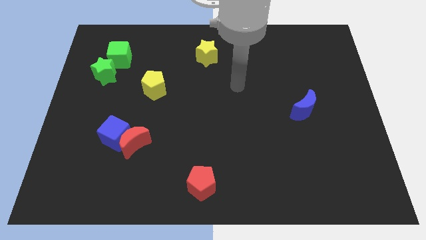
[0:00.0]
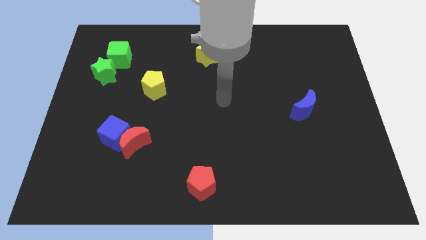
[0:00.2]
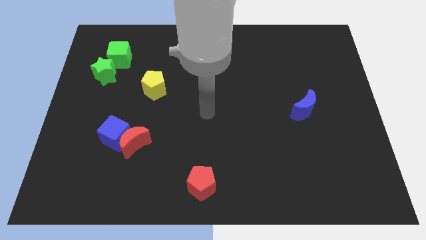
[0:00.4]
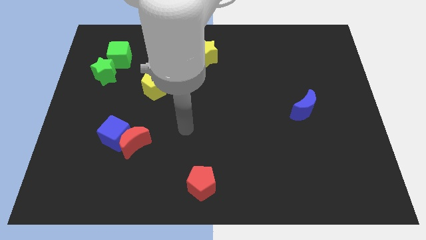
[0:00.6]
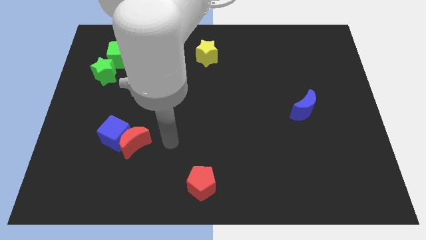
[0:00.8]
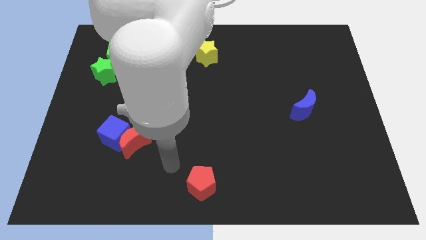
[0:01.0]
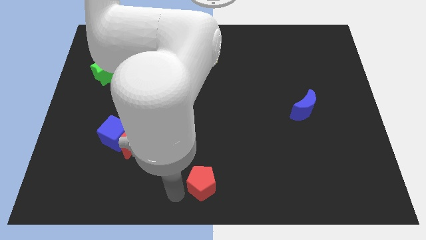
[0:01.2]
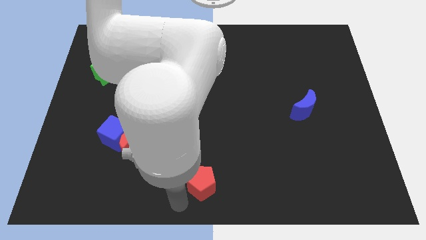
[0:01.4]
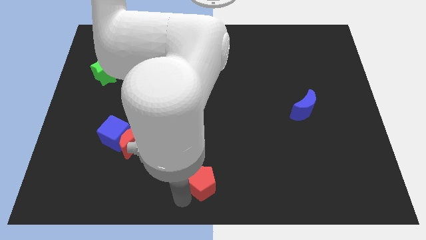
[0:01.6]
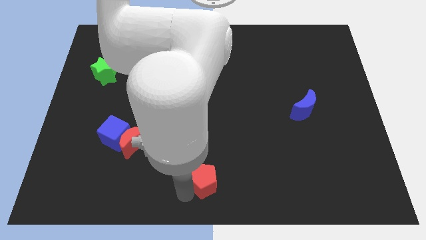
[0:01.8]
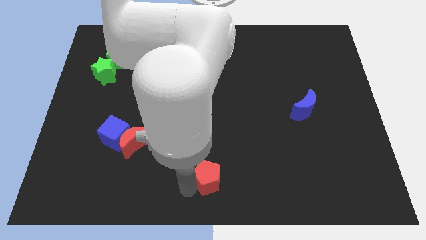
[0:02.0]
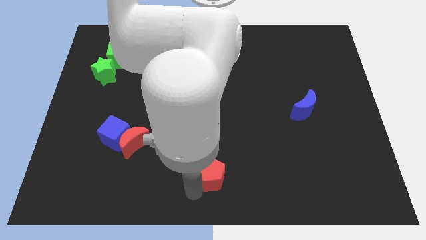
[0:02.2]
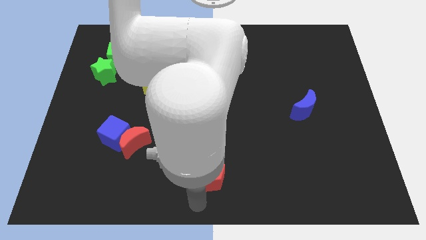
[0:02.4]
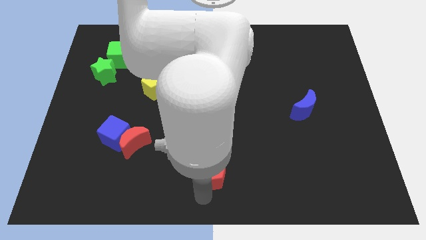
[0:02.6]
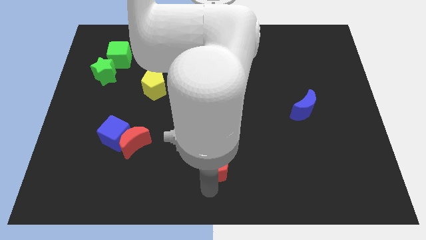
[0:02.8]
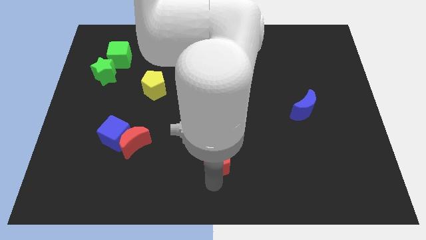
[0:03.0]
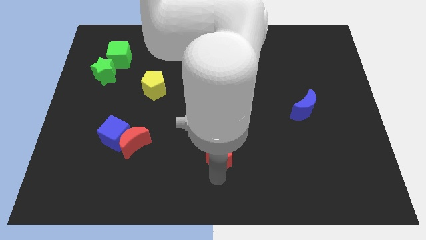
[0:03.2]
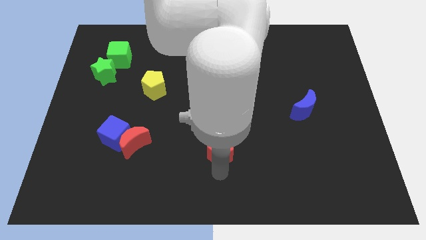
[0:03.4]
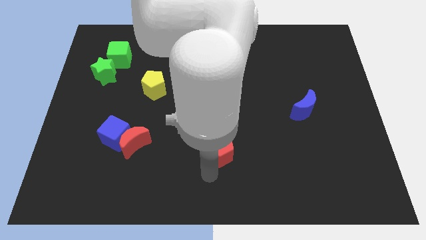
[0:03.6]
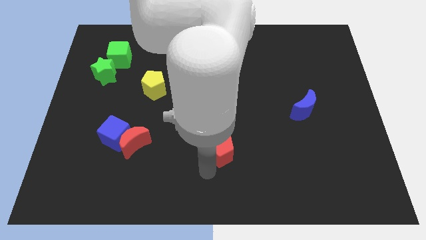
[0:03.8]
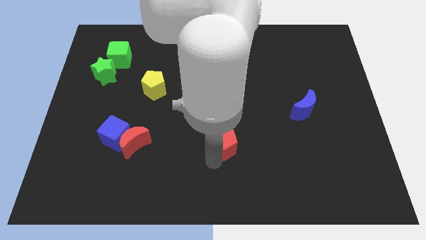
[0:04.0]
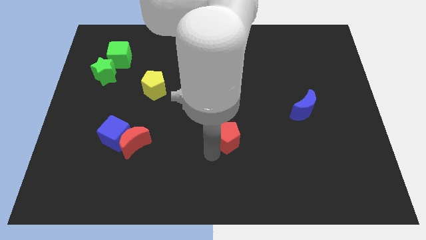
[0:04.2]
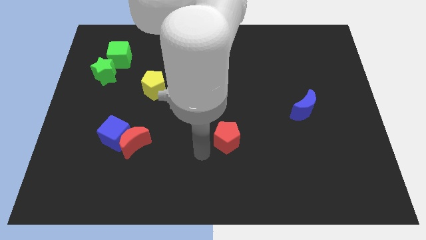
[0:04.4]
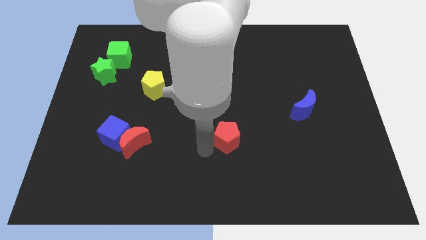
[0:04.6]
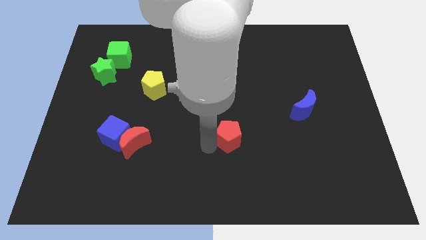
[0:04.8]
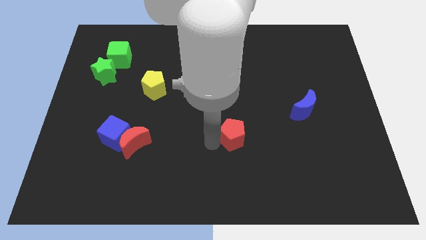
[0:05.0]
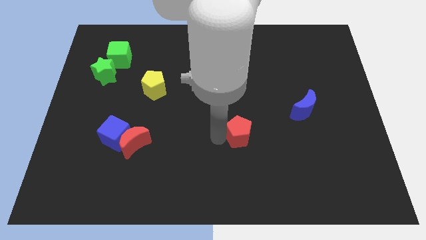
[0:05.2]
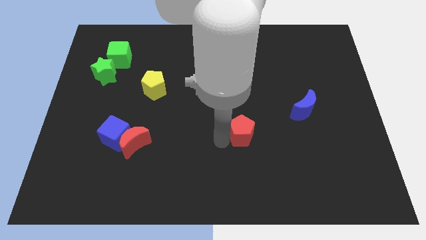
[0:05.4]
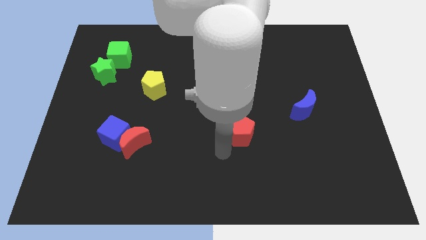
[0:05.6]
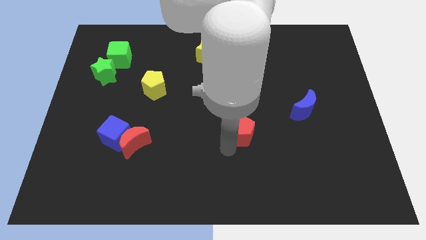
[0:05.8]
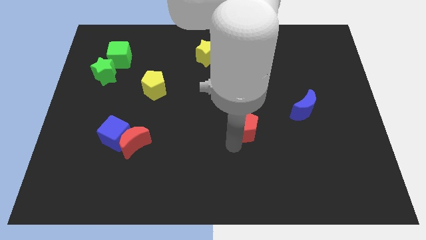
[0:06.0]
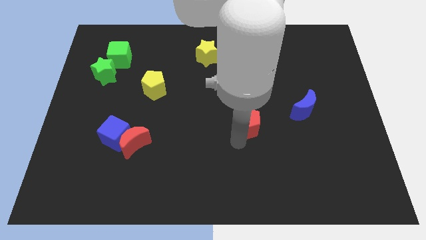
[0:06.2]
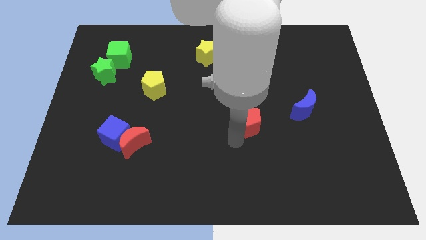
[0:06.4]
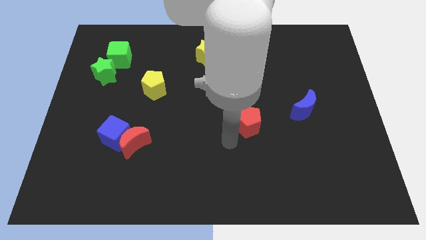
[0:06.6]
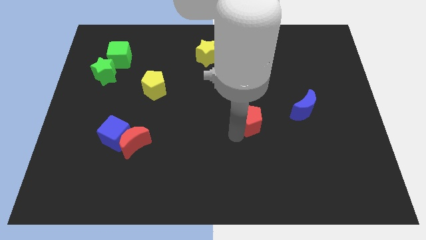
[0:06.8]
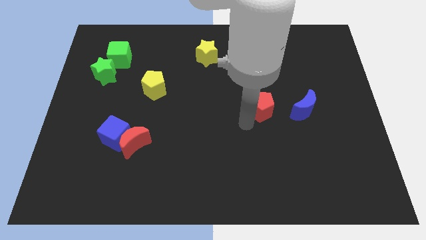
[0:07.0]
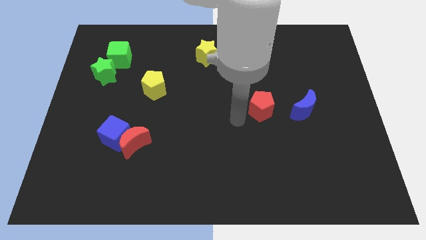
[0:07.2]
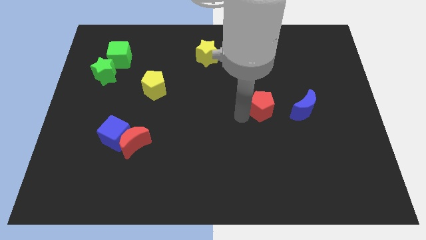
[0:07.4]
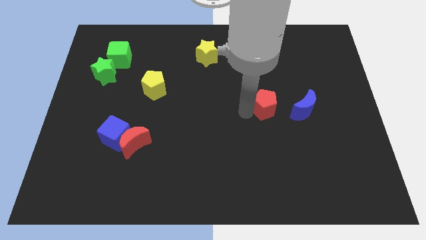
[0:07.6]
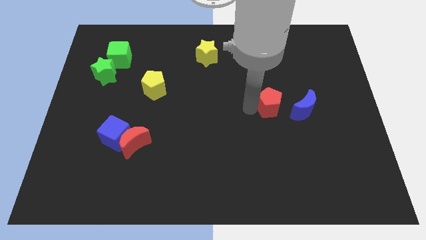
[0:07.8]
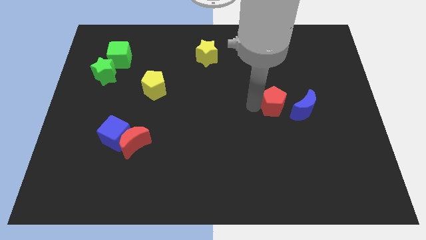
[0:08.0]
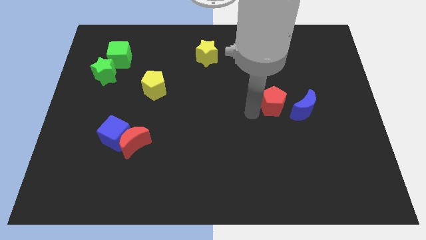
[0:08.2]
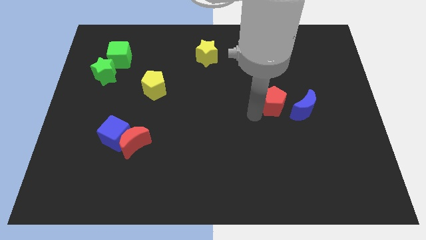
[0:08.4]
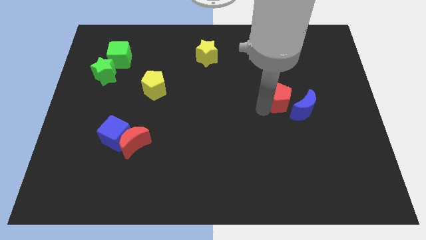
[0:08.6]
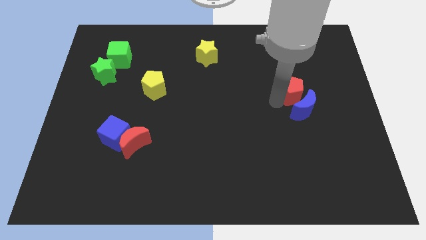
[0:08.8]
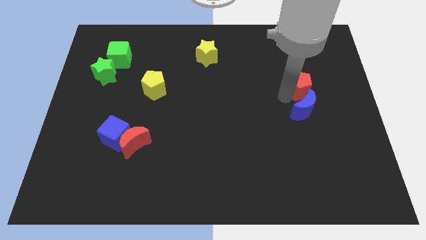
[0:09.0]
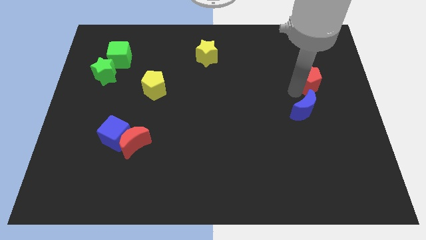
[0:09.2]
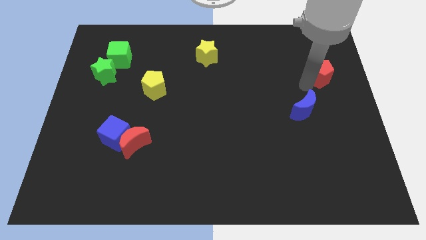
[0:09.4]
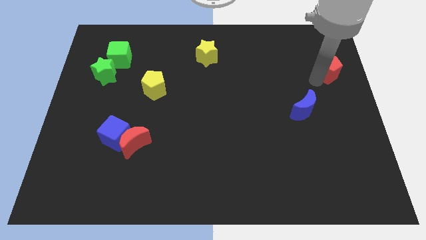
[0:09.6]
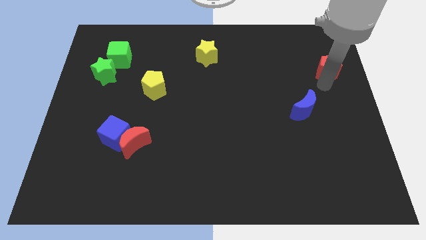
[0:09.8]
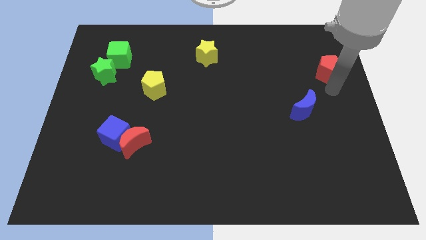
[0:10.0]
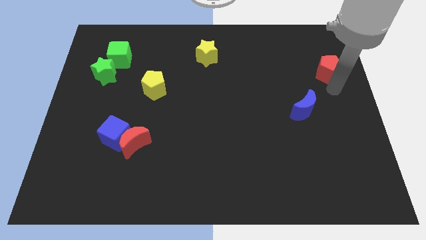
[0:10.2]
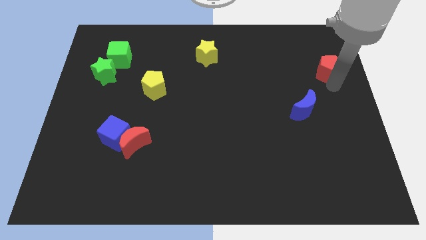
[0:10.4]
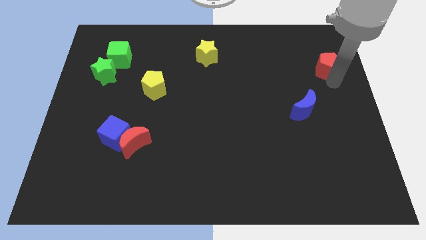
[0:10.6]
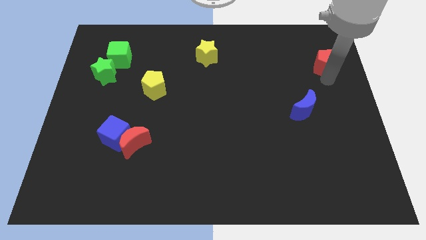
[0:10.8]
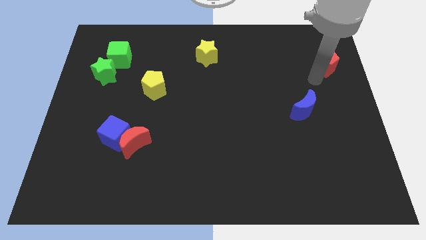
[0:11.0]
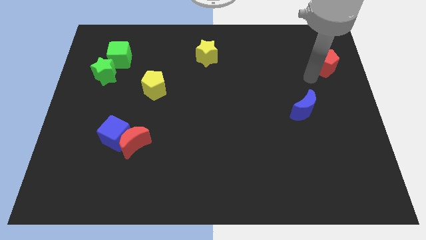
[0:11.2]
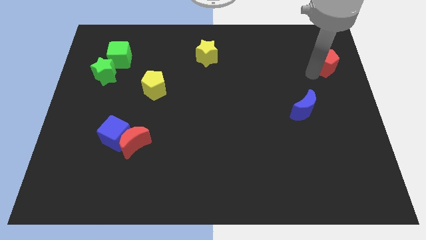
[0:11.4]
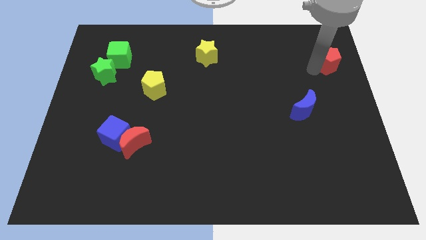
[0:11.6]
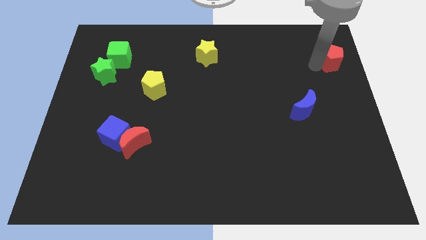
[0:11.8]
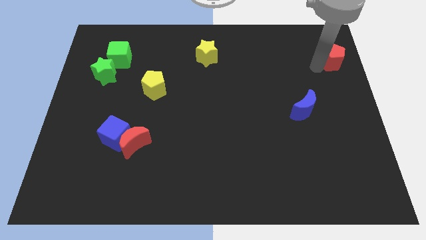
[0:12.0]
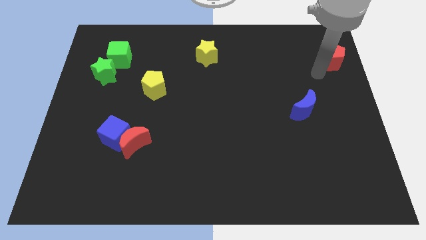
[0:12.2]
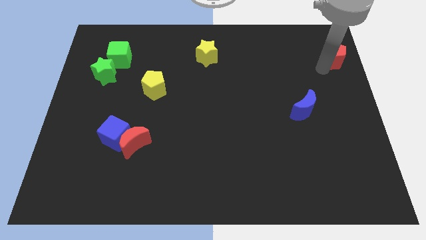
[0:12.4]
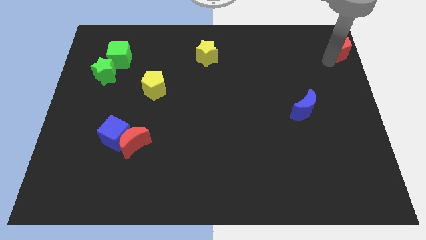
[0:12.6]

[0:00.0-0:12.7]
put the red pentagon to the top right corner
